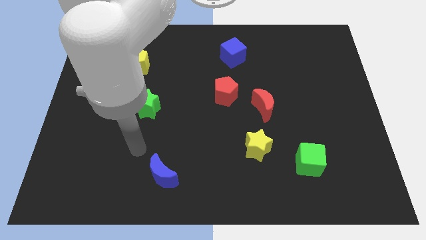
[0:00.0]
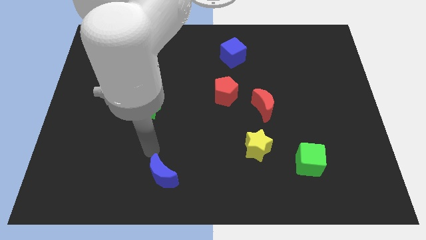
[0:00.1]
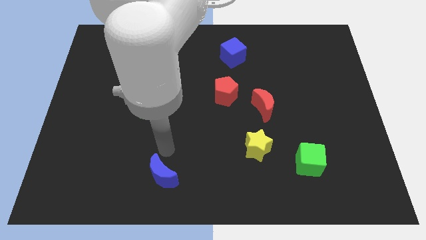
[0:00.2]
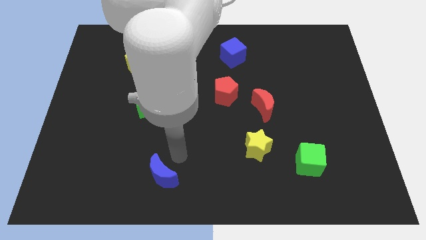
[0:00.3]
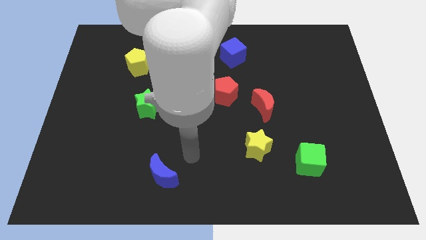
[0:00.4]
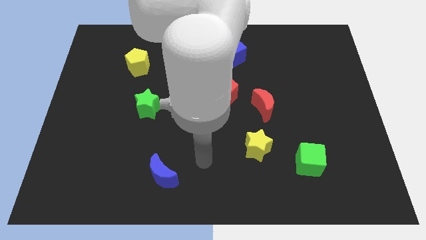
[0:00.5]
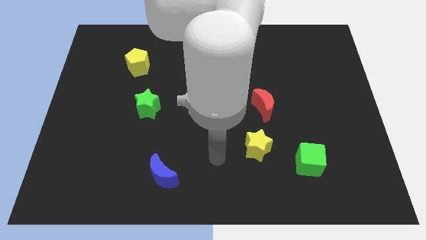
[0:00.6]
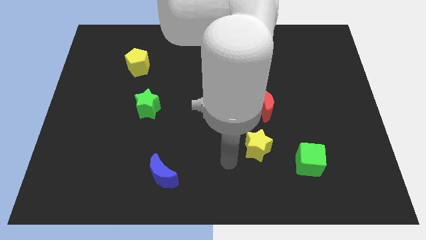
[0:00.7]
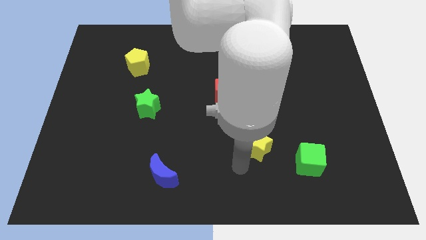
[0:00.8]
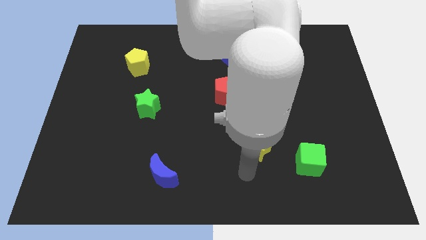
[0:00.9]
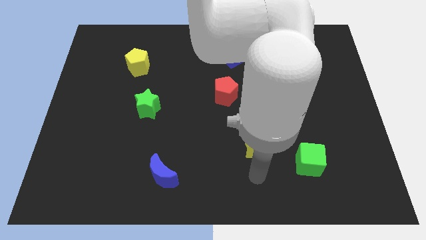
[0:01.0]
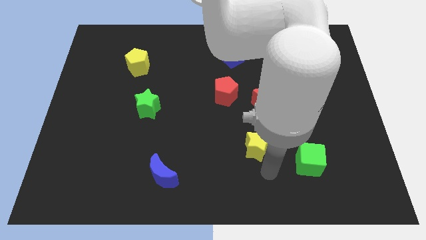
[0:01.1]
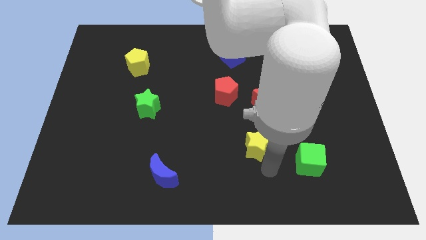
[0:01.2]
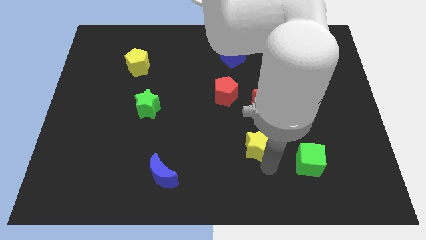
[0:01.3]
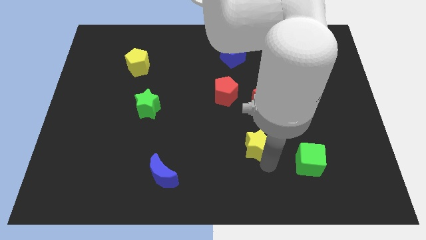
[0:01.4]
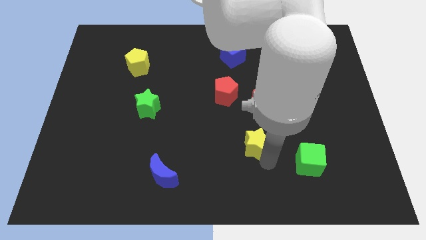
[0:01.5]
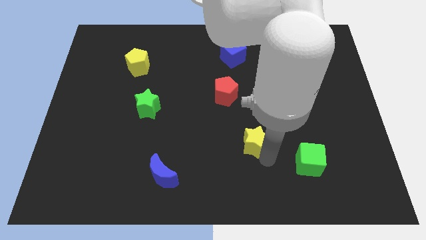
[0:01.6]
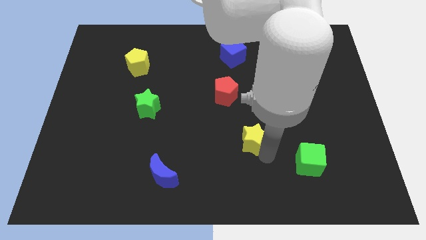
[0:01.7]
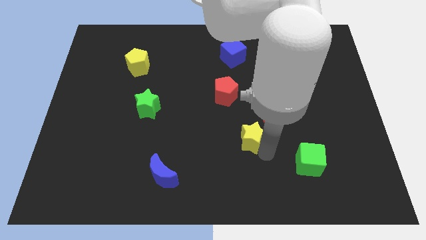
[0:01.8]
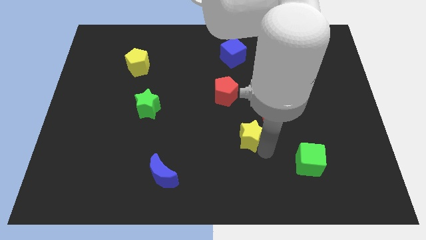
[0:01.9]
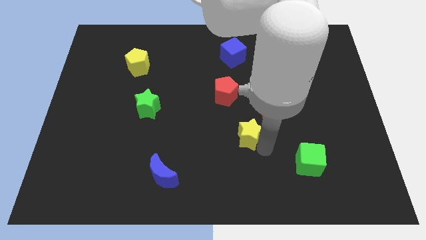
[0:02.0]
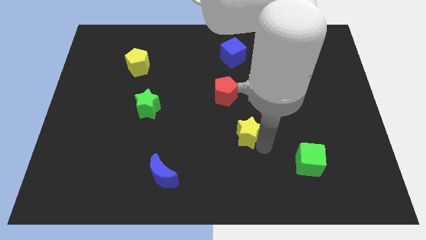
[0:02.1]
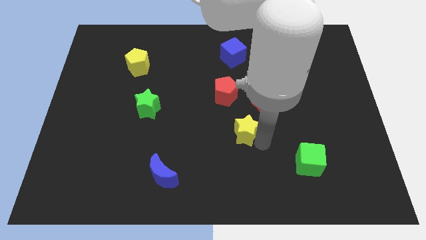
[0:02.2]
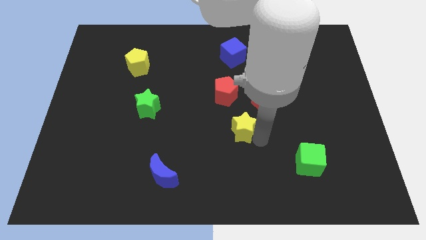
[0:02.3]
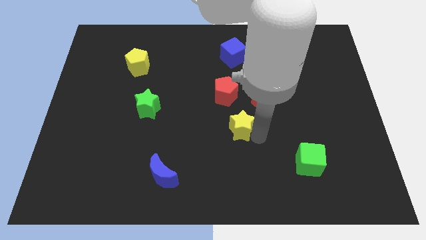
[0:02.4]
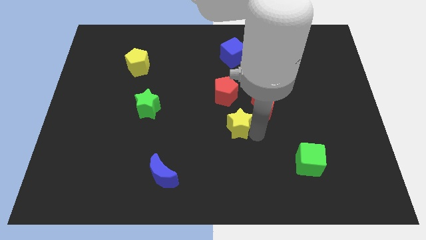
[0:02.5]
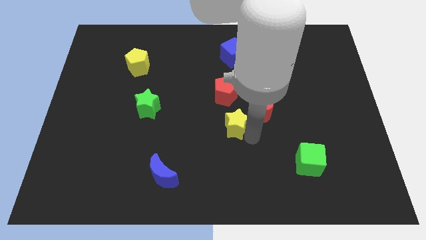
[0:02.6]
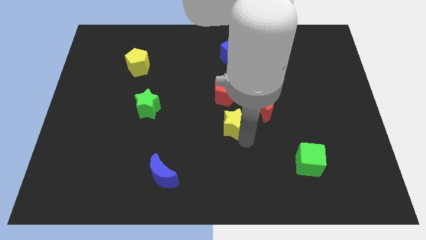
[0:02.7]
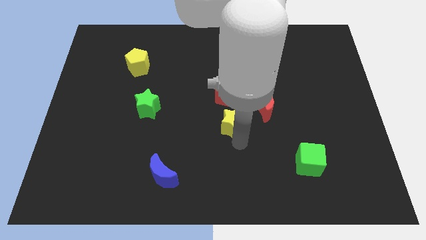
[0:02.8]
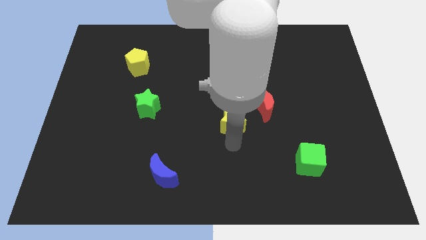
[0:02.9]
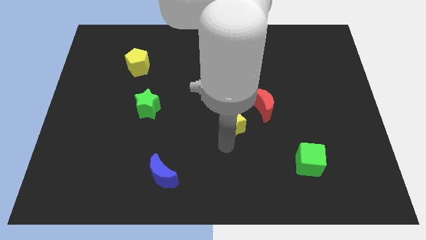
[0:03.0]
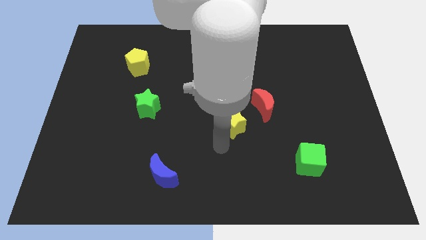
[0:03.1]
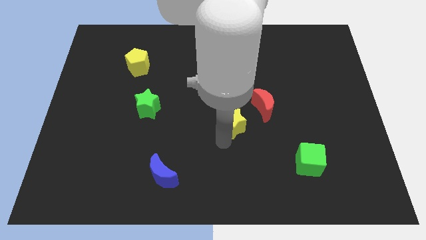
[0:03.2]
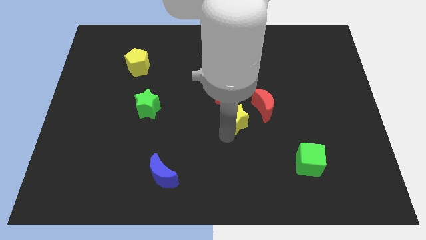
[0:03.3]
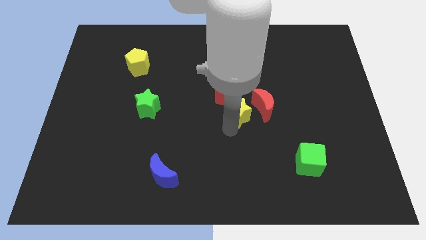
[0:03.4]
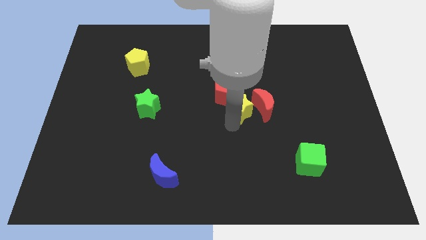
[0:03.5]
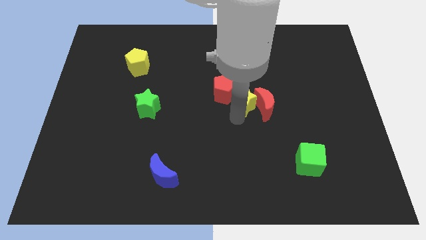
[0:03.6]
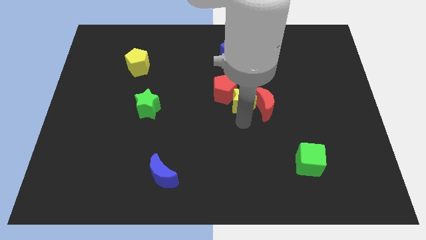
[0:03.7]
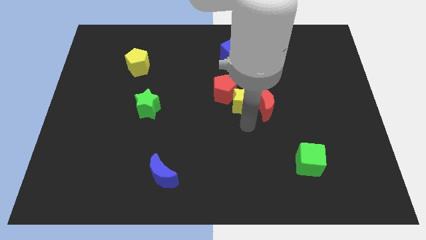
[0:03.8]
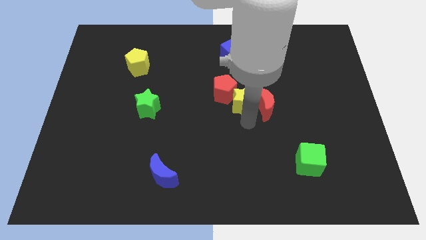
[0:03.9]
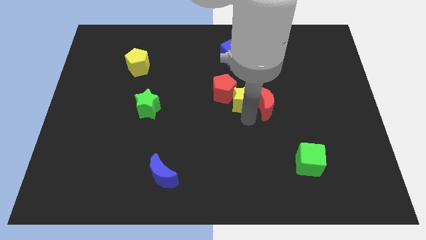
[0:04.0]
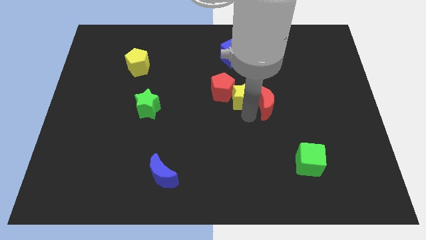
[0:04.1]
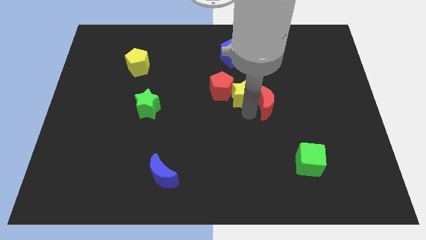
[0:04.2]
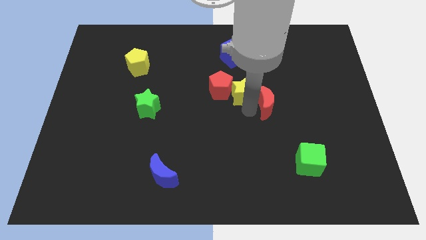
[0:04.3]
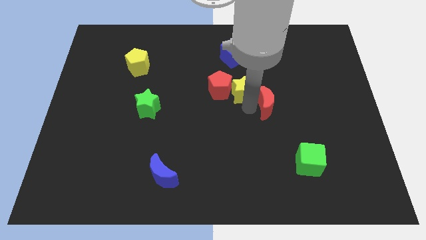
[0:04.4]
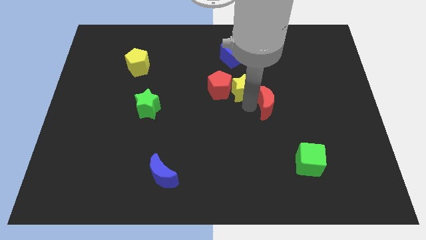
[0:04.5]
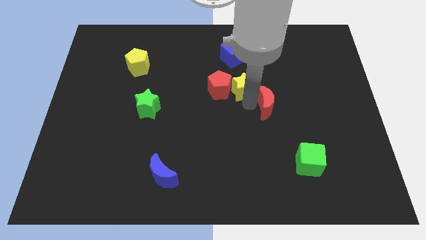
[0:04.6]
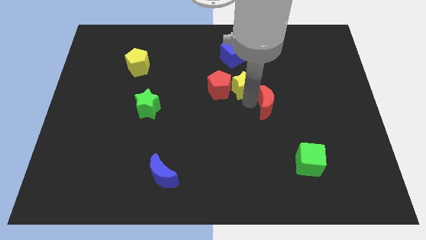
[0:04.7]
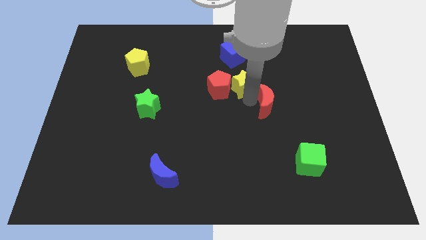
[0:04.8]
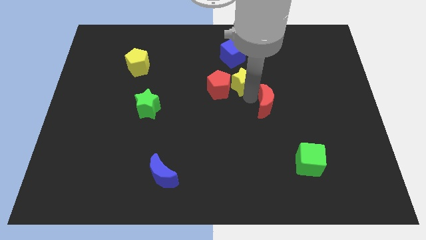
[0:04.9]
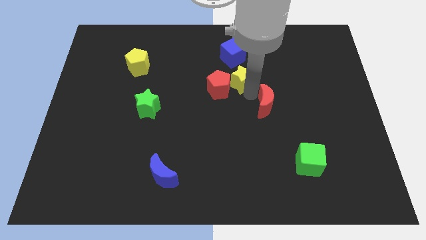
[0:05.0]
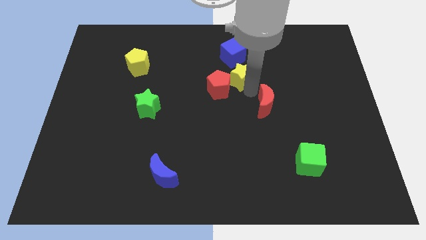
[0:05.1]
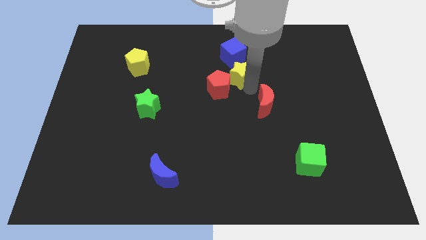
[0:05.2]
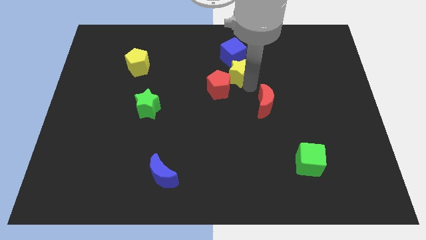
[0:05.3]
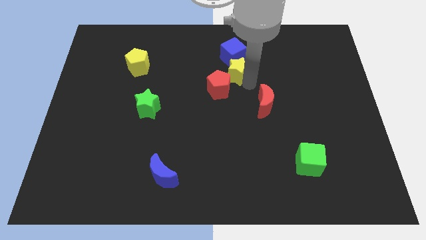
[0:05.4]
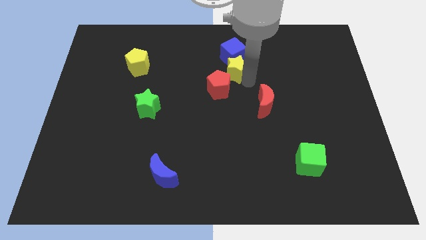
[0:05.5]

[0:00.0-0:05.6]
slide the yellow star to the bottom left side of the blue cube

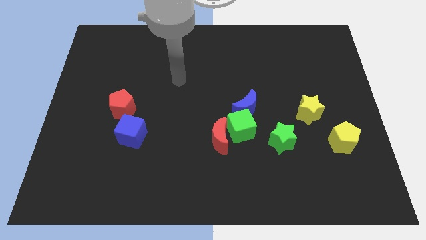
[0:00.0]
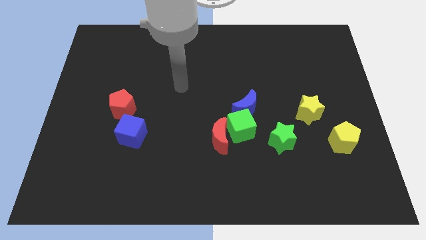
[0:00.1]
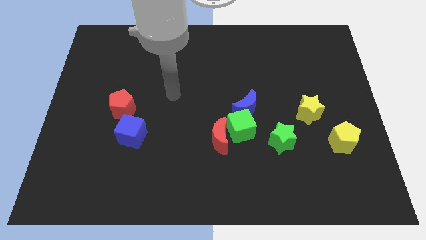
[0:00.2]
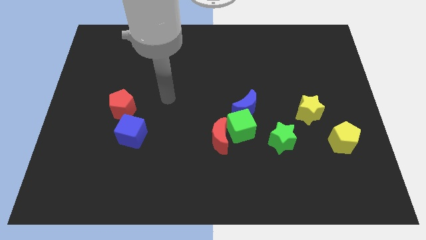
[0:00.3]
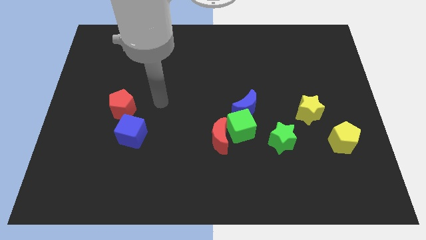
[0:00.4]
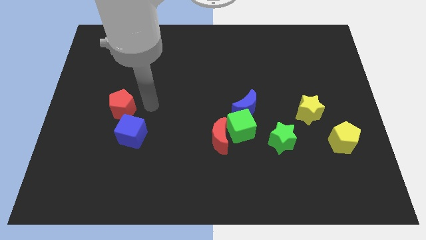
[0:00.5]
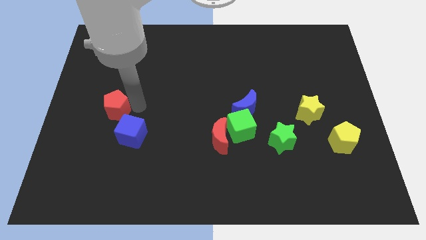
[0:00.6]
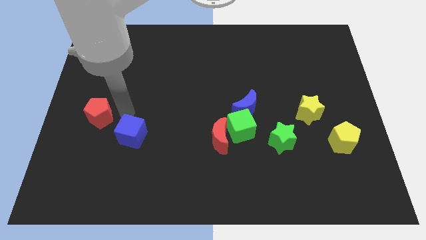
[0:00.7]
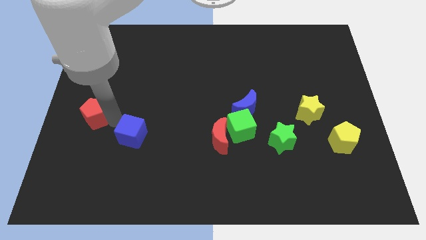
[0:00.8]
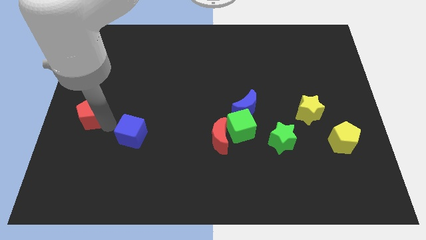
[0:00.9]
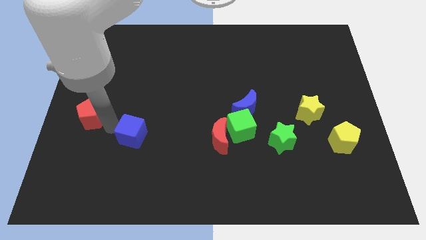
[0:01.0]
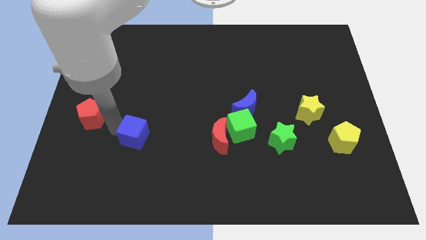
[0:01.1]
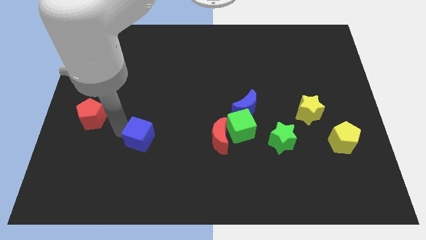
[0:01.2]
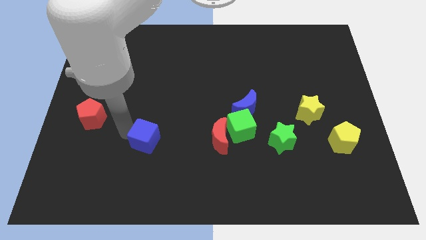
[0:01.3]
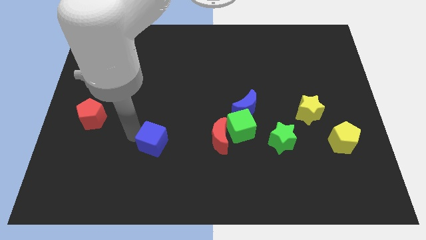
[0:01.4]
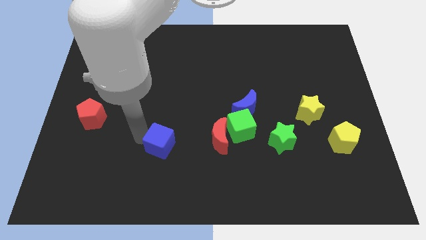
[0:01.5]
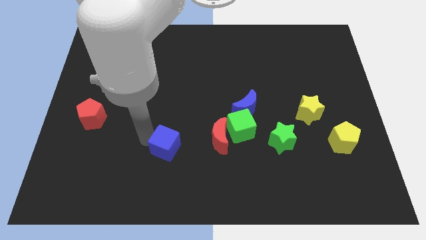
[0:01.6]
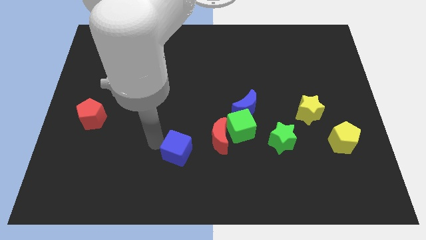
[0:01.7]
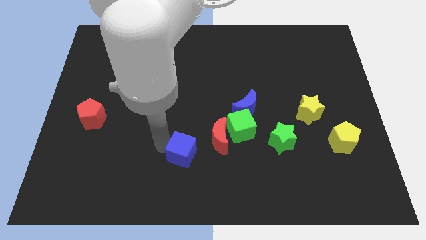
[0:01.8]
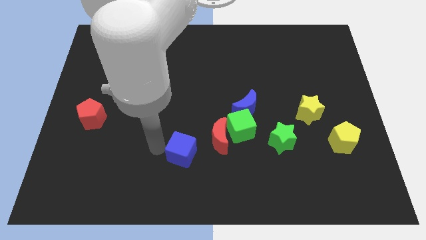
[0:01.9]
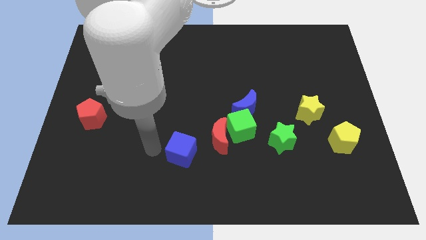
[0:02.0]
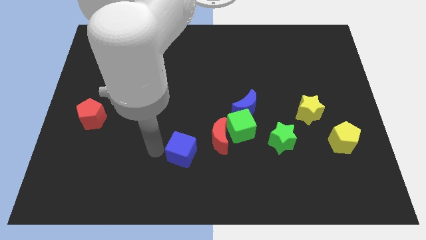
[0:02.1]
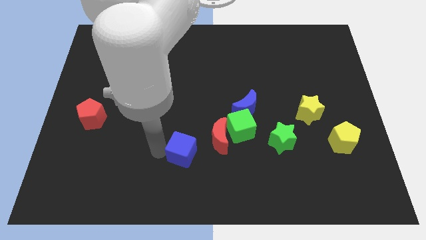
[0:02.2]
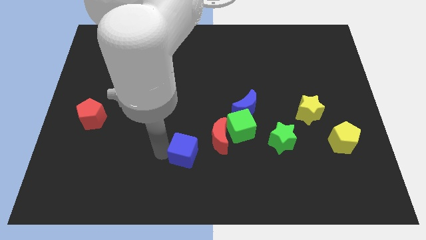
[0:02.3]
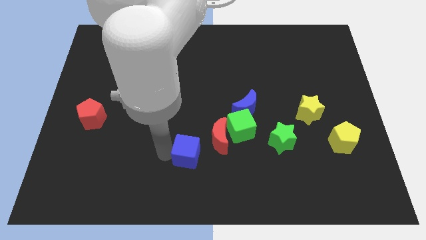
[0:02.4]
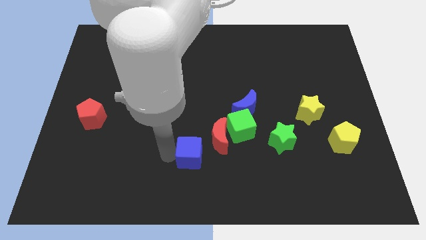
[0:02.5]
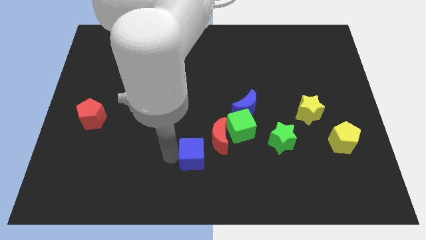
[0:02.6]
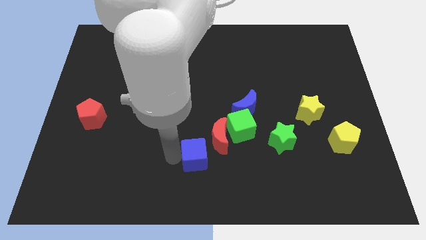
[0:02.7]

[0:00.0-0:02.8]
put the blue cube diagonally down and to the left of the green cube
